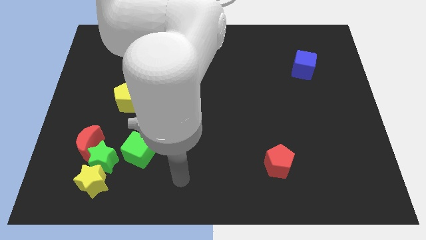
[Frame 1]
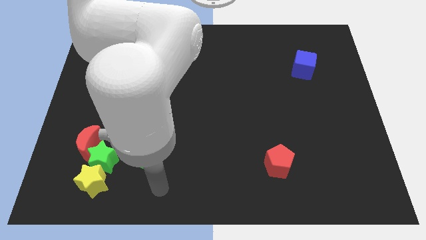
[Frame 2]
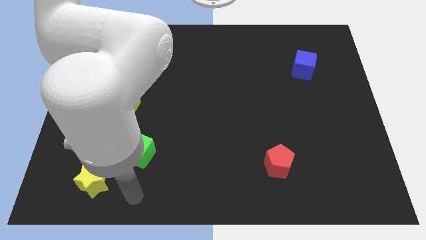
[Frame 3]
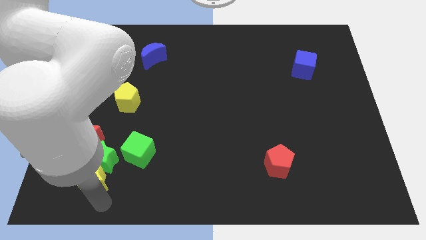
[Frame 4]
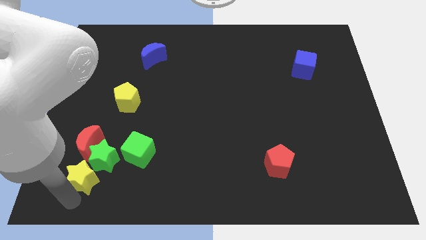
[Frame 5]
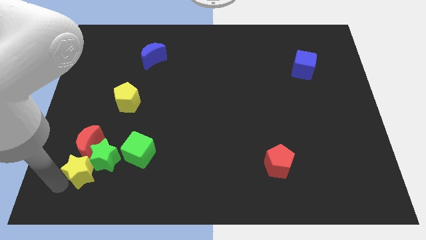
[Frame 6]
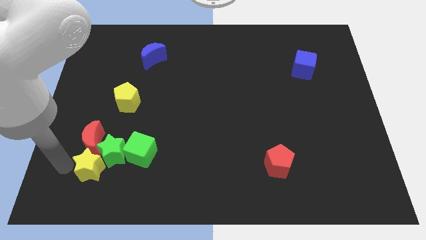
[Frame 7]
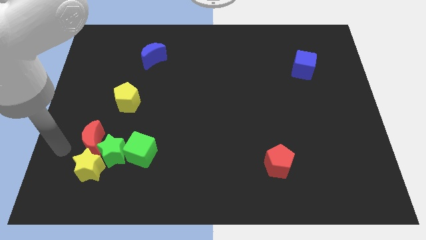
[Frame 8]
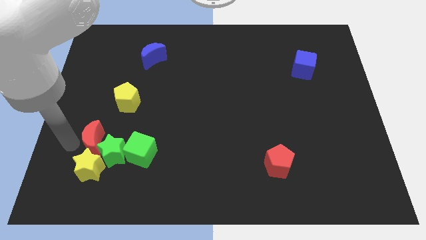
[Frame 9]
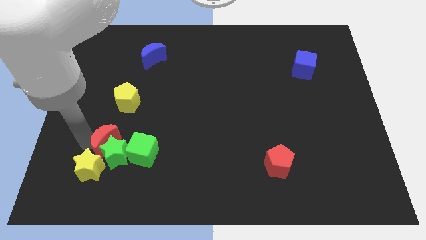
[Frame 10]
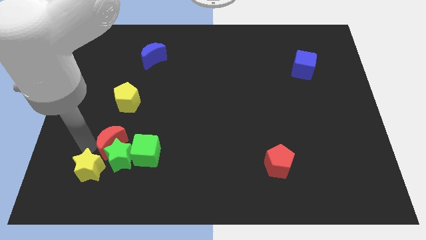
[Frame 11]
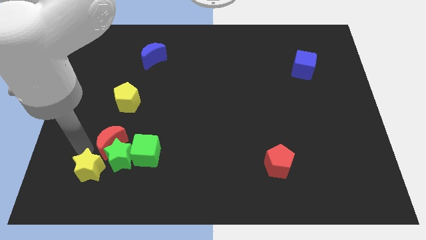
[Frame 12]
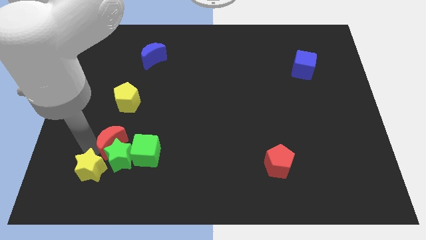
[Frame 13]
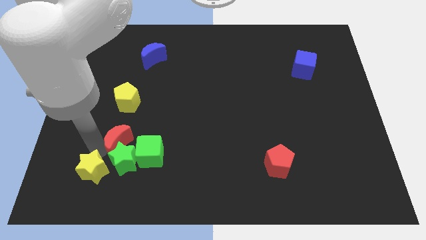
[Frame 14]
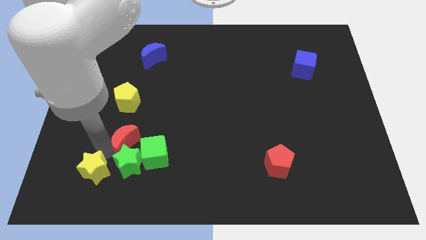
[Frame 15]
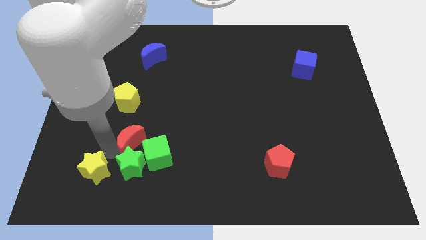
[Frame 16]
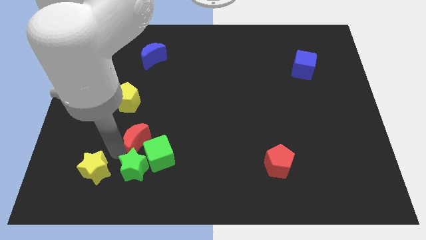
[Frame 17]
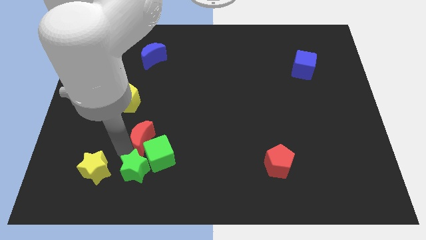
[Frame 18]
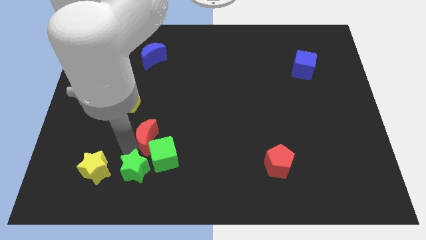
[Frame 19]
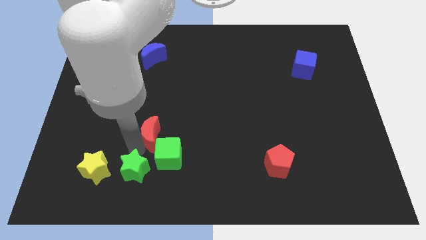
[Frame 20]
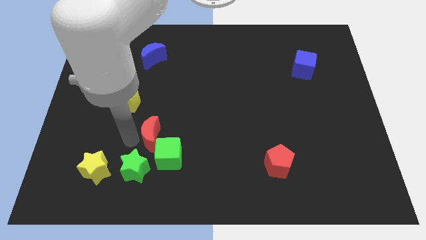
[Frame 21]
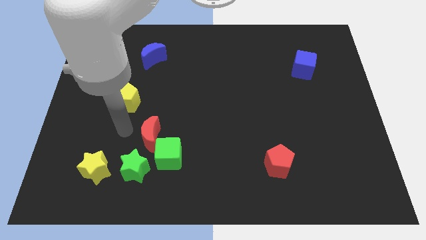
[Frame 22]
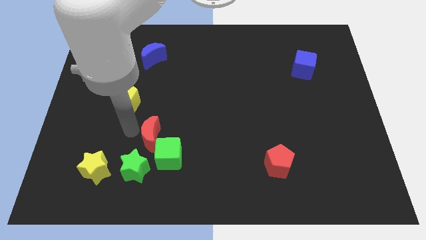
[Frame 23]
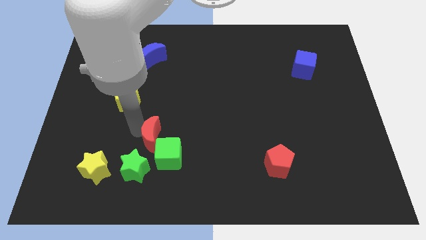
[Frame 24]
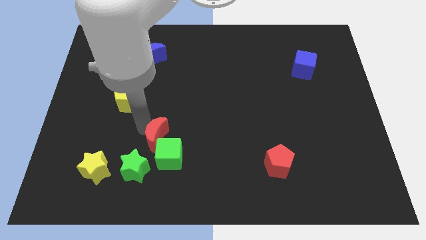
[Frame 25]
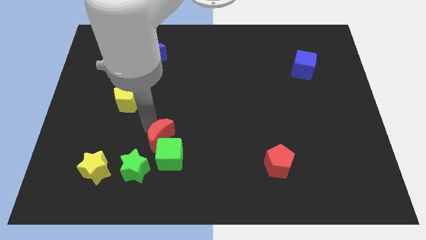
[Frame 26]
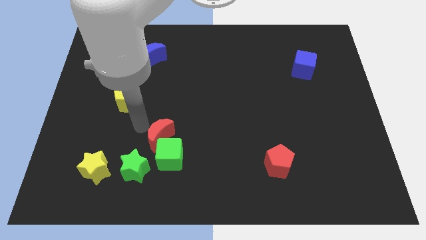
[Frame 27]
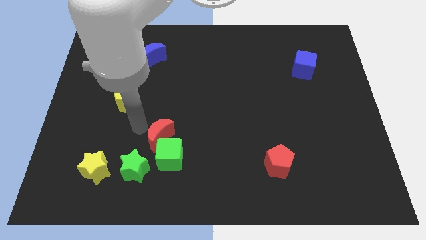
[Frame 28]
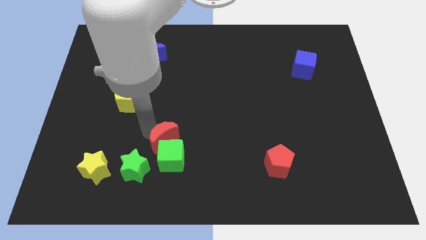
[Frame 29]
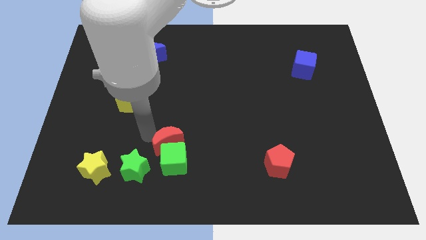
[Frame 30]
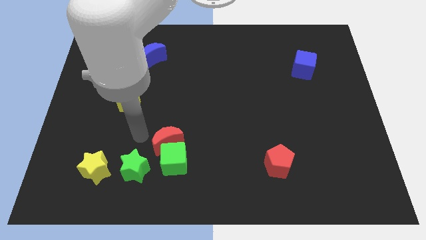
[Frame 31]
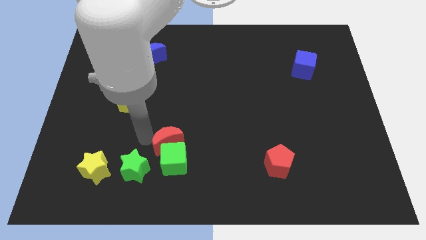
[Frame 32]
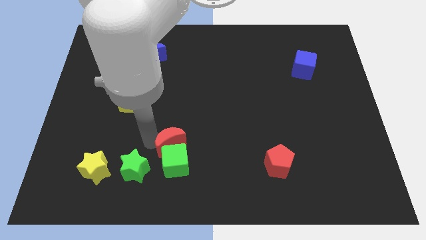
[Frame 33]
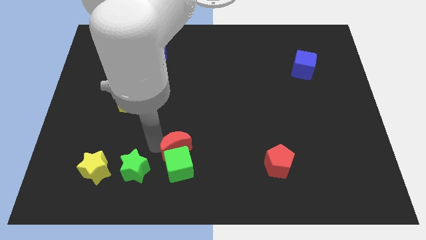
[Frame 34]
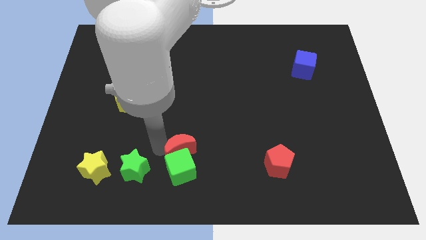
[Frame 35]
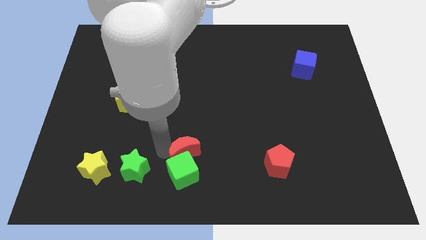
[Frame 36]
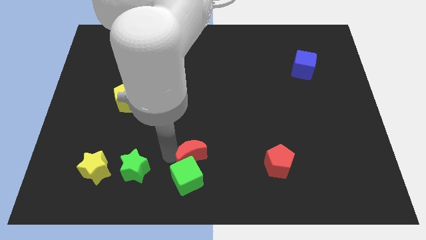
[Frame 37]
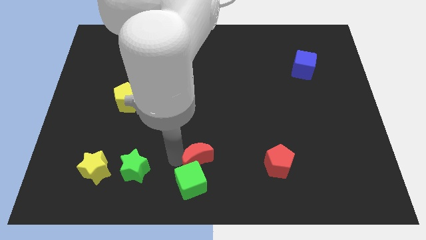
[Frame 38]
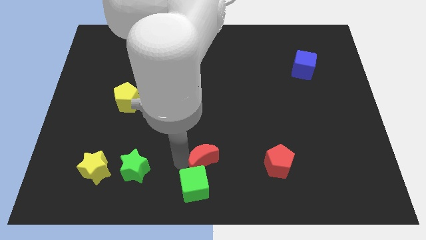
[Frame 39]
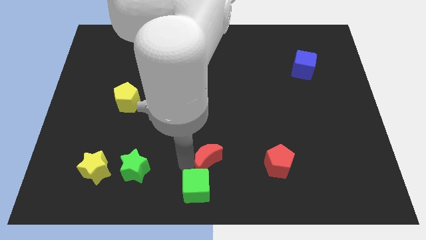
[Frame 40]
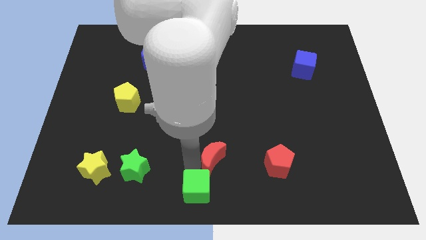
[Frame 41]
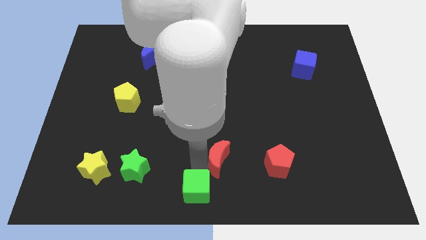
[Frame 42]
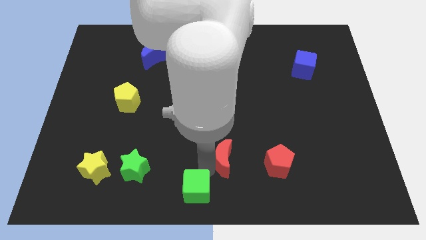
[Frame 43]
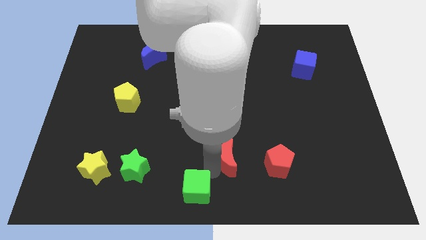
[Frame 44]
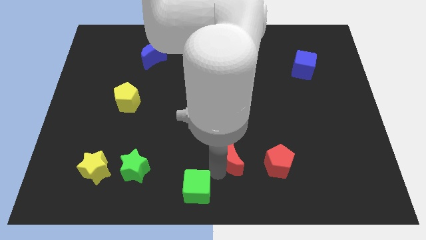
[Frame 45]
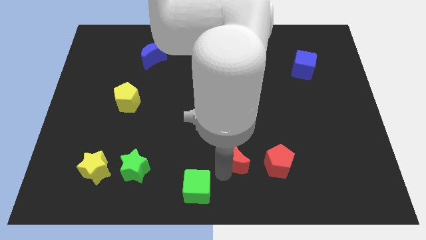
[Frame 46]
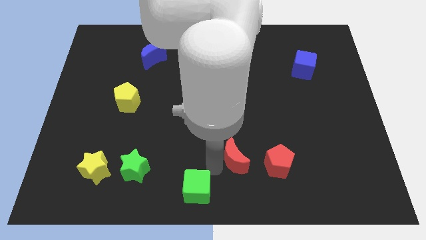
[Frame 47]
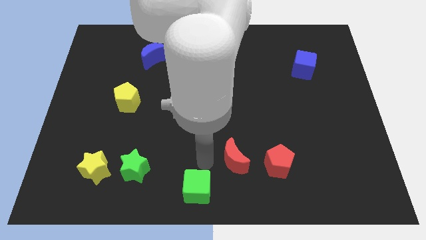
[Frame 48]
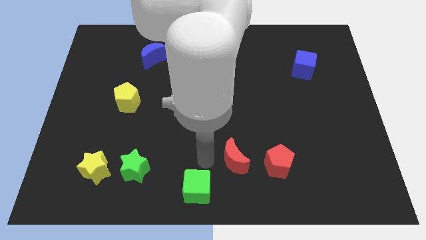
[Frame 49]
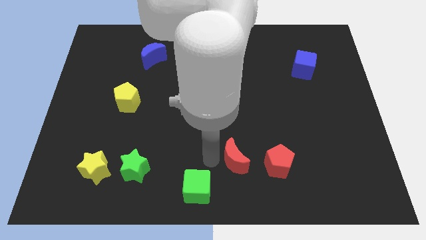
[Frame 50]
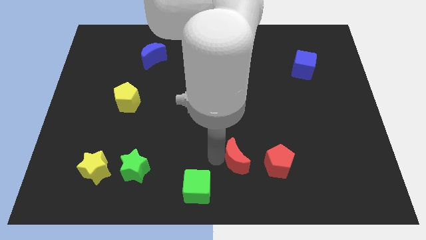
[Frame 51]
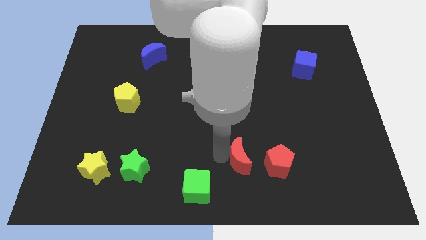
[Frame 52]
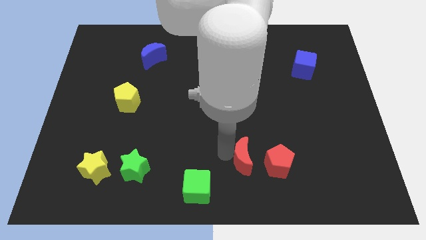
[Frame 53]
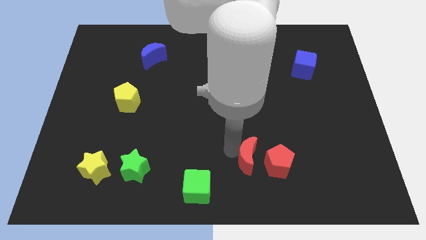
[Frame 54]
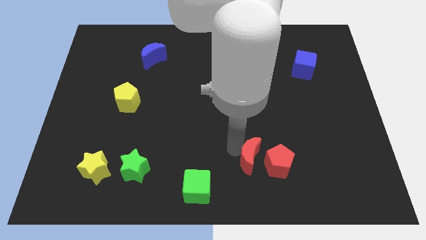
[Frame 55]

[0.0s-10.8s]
move the red moon next to the red pentagon

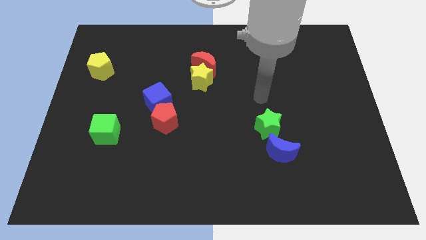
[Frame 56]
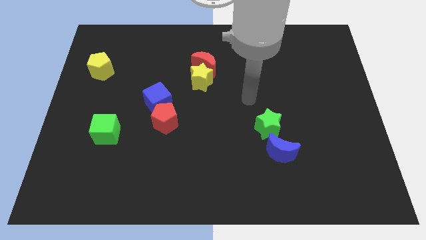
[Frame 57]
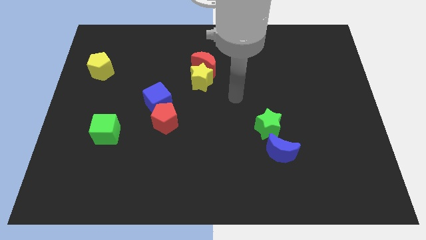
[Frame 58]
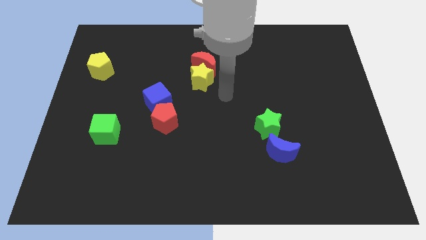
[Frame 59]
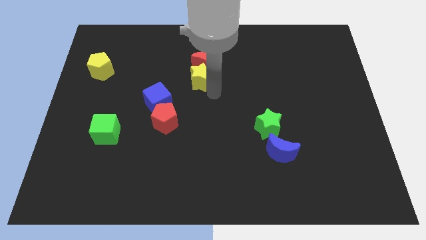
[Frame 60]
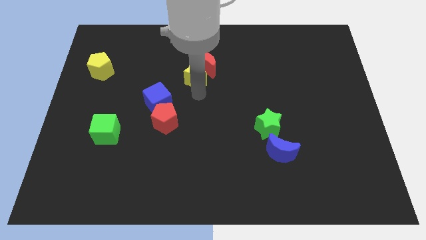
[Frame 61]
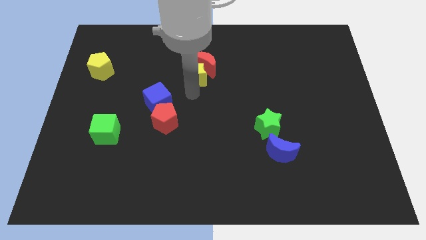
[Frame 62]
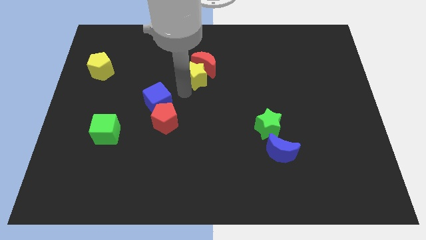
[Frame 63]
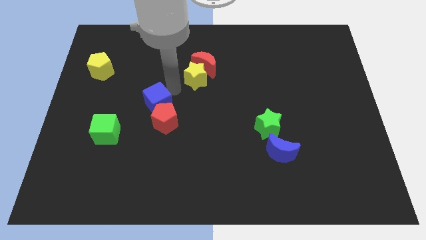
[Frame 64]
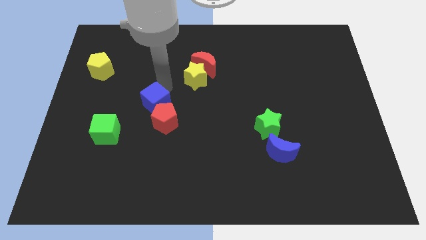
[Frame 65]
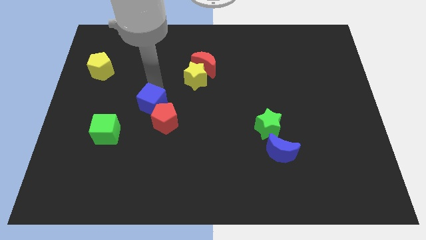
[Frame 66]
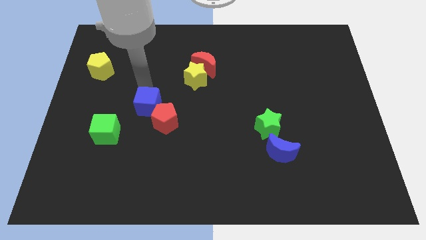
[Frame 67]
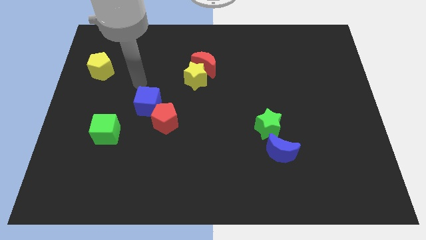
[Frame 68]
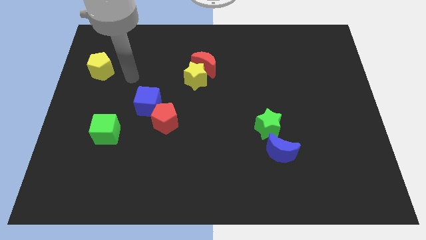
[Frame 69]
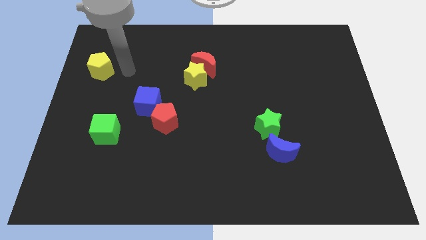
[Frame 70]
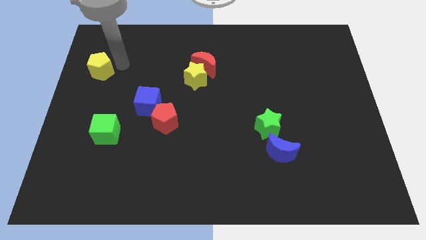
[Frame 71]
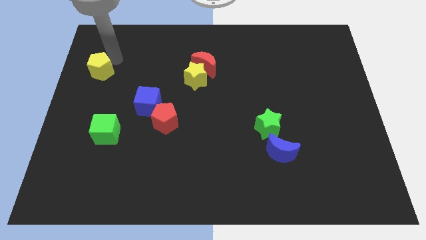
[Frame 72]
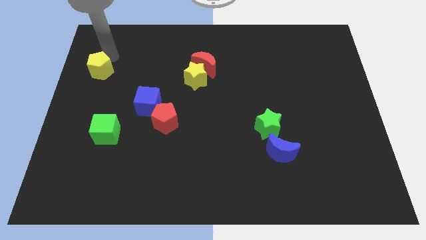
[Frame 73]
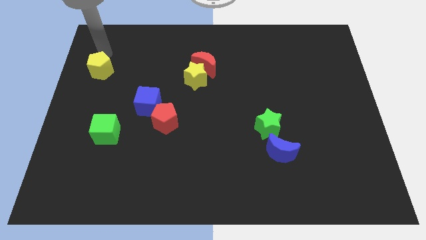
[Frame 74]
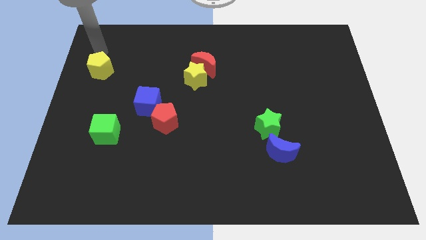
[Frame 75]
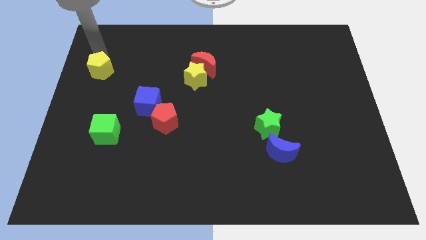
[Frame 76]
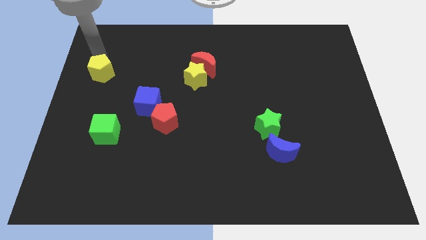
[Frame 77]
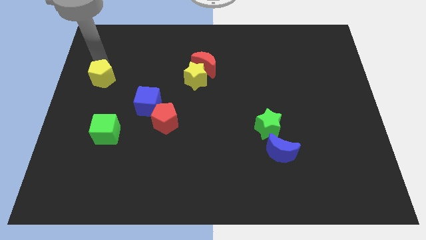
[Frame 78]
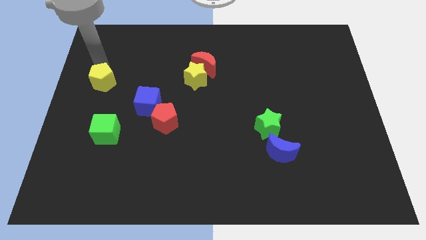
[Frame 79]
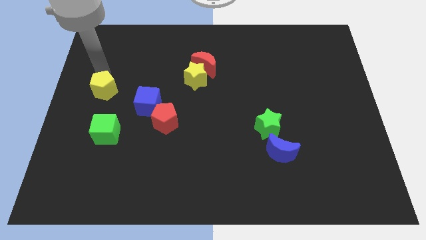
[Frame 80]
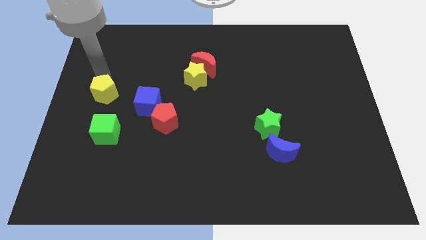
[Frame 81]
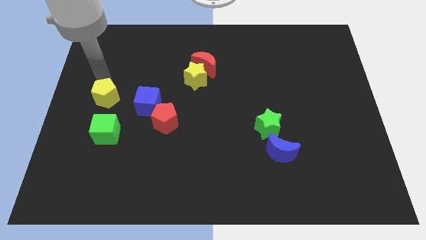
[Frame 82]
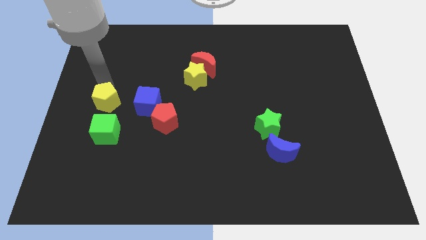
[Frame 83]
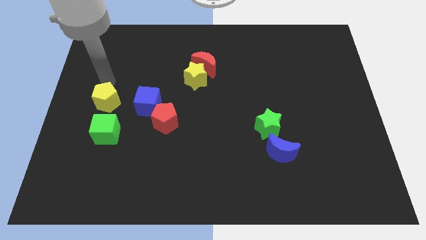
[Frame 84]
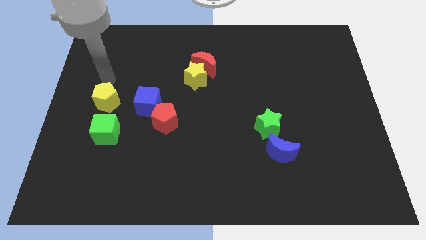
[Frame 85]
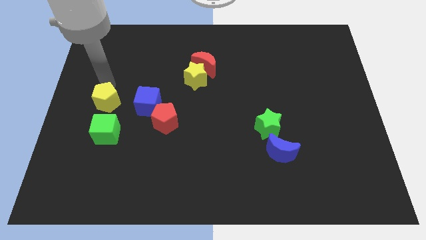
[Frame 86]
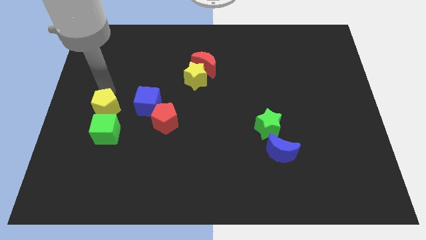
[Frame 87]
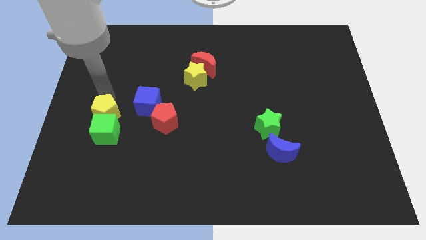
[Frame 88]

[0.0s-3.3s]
push the yellow pentagon next to the green cube
